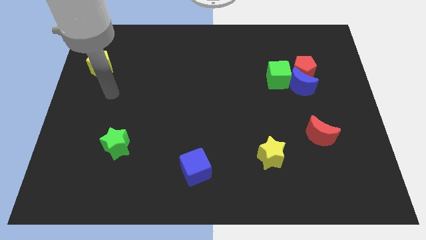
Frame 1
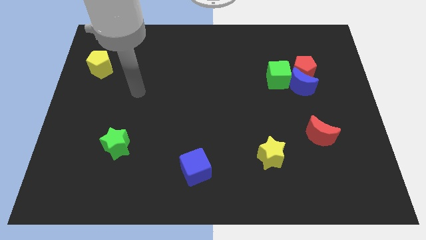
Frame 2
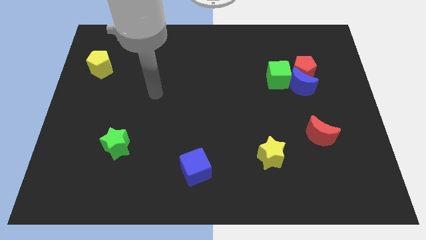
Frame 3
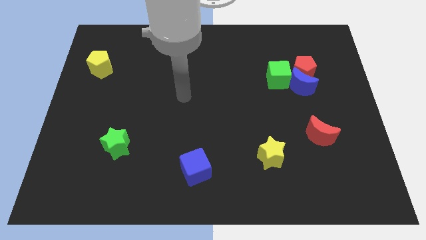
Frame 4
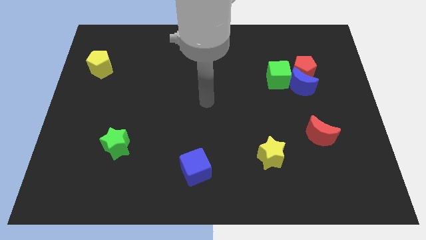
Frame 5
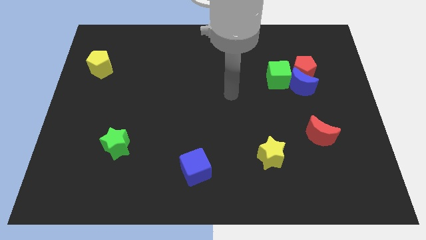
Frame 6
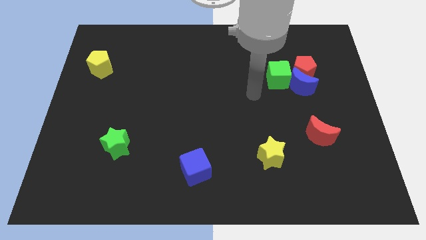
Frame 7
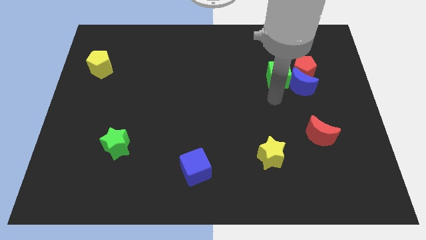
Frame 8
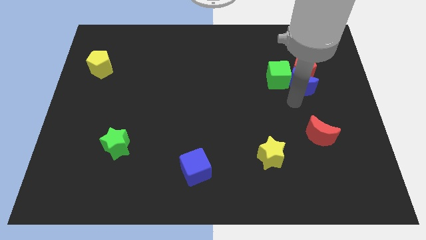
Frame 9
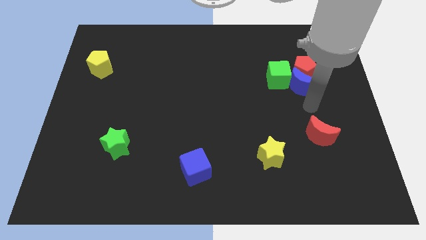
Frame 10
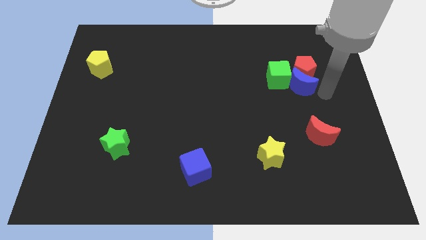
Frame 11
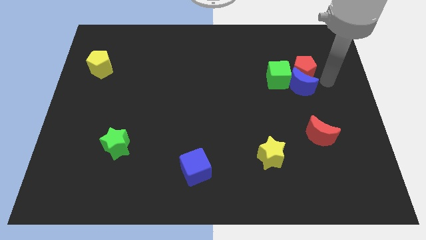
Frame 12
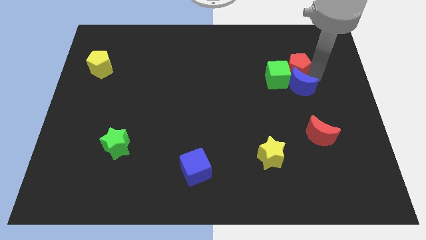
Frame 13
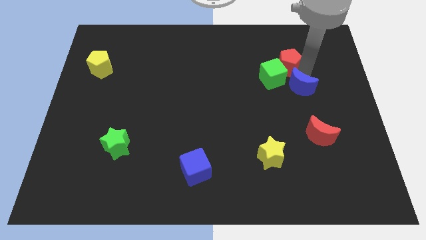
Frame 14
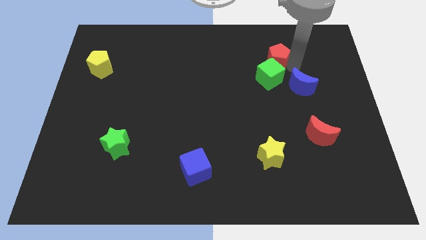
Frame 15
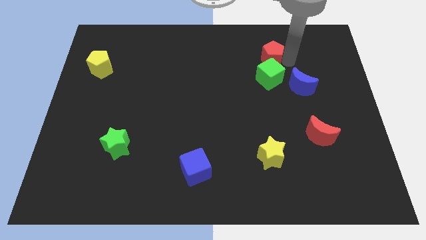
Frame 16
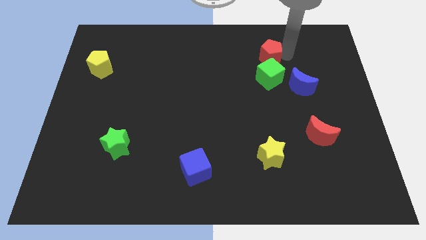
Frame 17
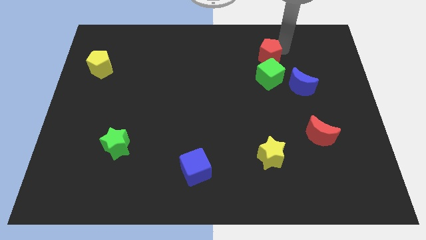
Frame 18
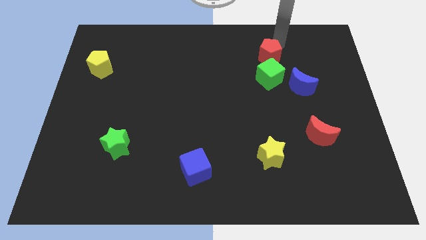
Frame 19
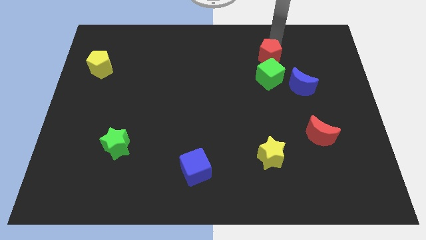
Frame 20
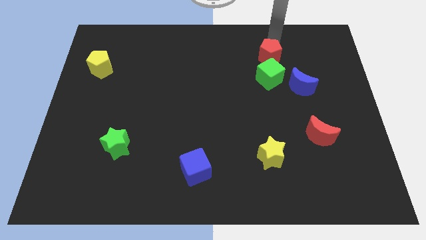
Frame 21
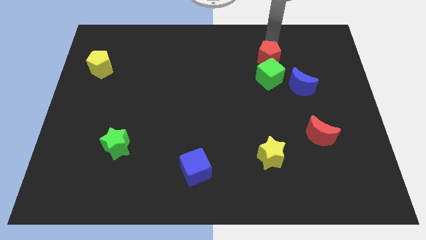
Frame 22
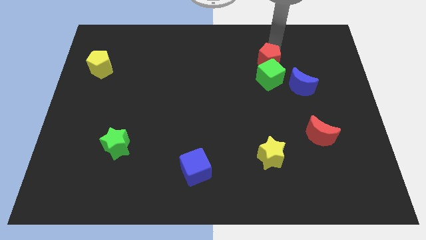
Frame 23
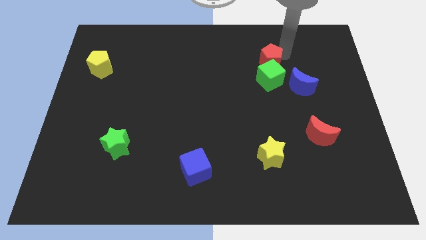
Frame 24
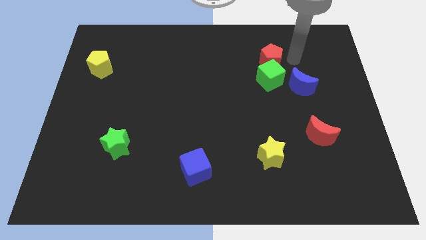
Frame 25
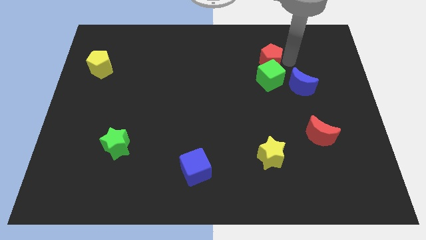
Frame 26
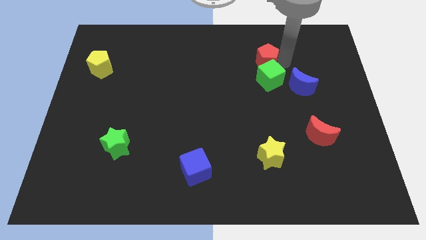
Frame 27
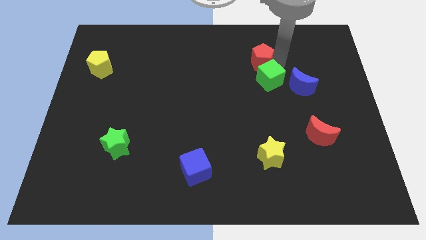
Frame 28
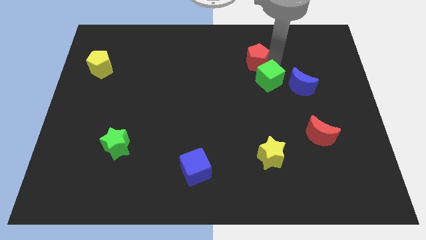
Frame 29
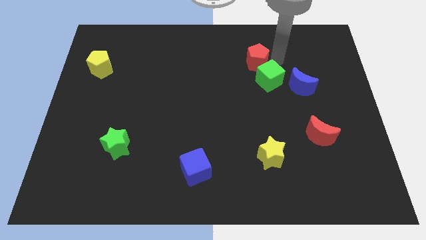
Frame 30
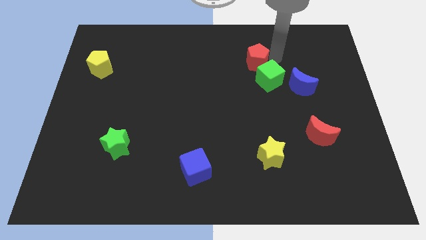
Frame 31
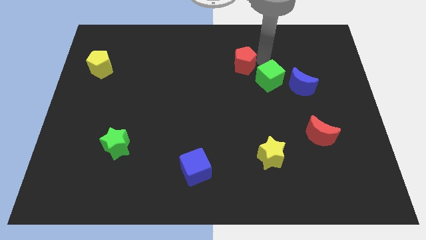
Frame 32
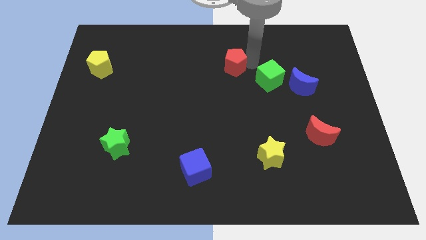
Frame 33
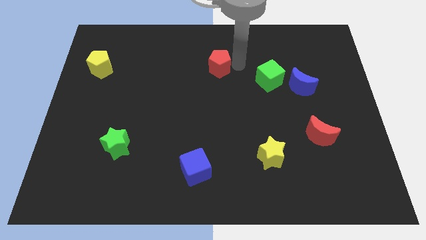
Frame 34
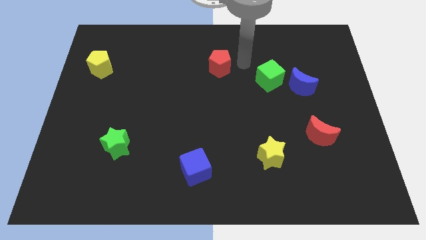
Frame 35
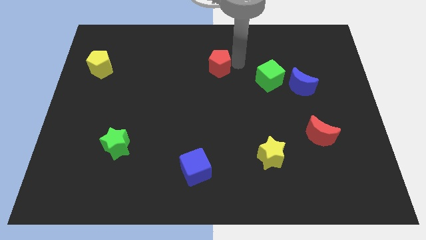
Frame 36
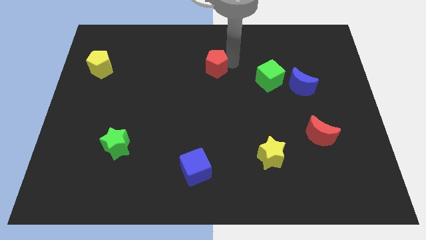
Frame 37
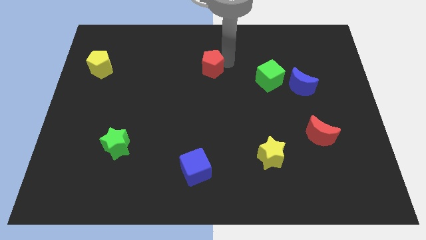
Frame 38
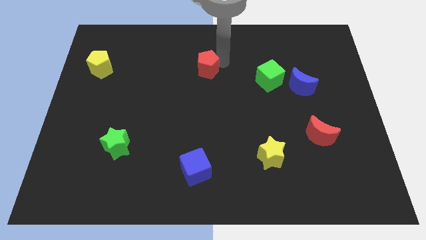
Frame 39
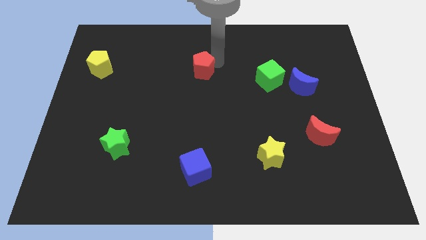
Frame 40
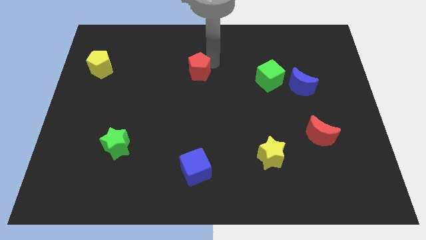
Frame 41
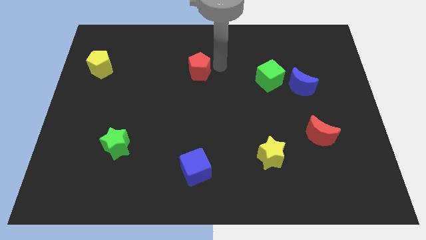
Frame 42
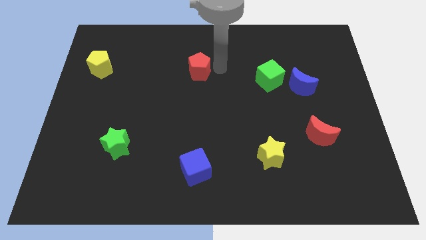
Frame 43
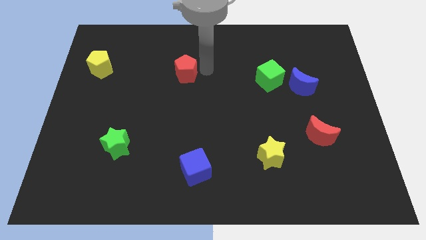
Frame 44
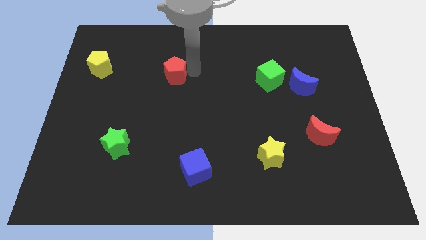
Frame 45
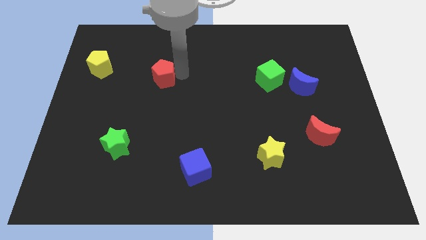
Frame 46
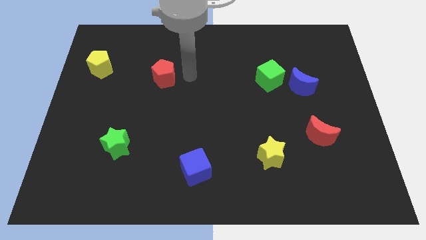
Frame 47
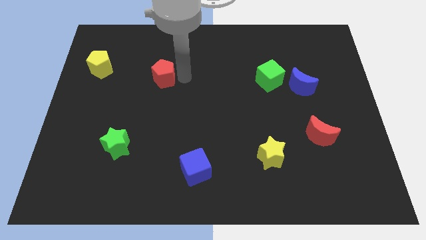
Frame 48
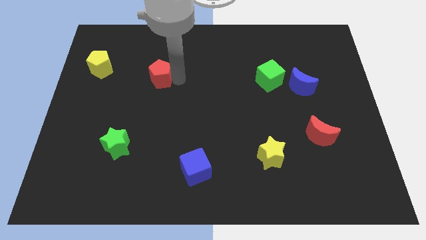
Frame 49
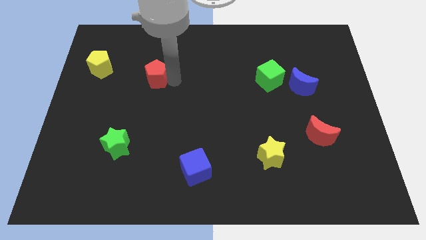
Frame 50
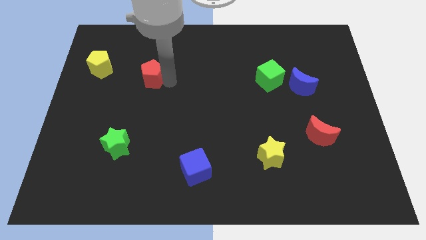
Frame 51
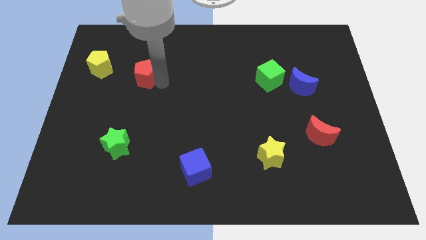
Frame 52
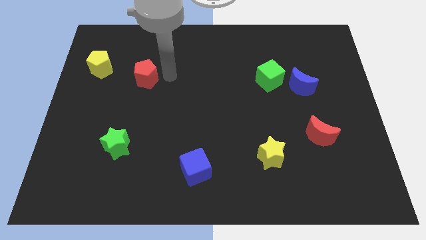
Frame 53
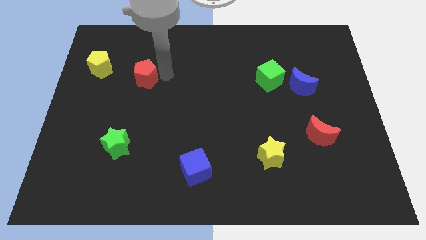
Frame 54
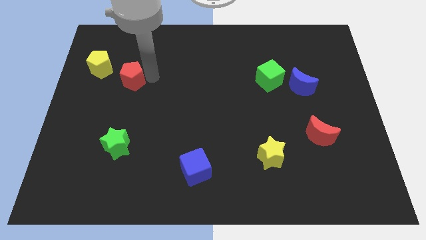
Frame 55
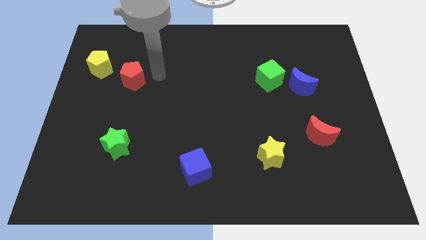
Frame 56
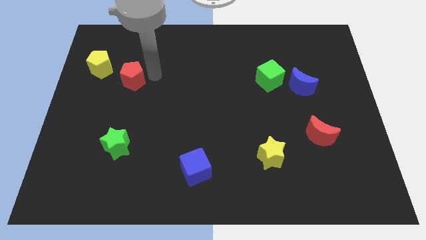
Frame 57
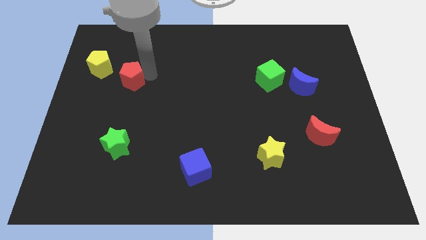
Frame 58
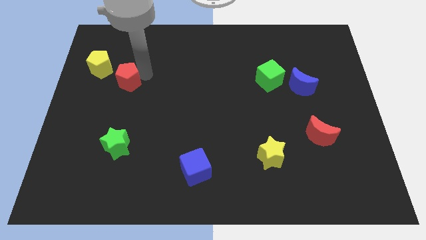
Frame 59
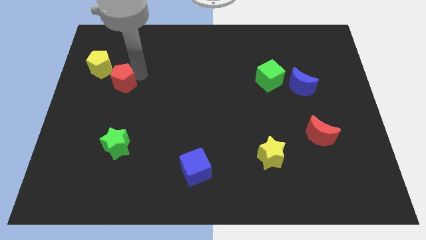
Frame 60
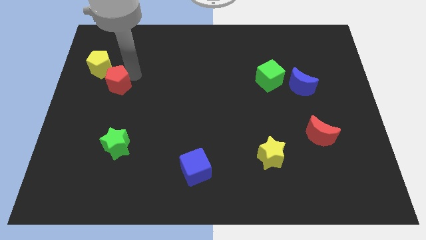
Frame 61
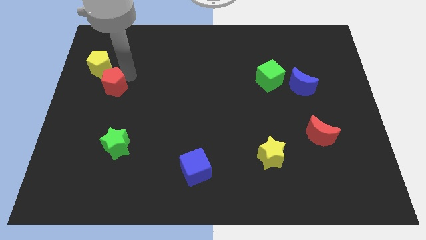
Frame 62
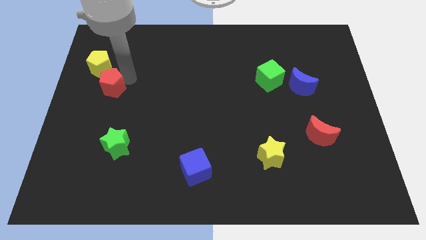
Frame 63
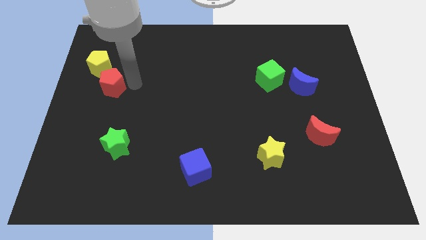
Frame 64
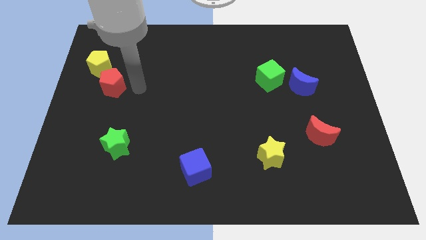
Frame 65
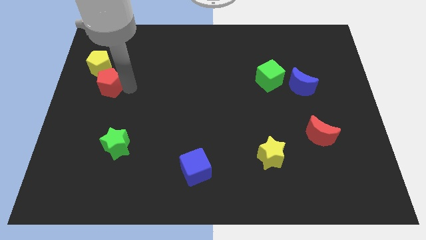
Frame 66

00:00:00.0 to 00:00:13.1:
slide the red pentagon to the left side of the board
